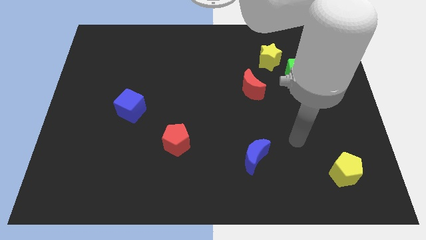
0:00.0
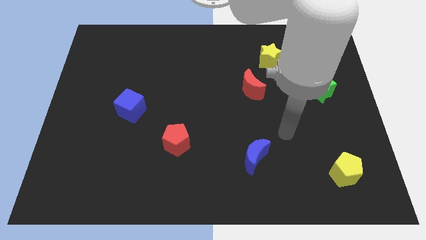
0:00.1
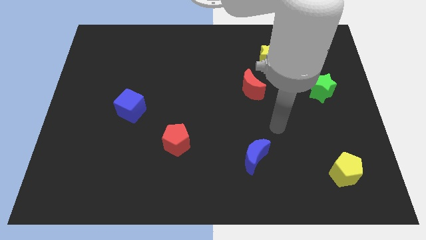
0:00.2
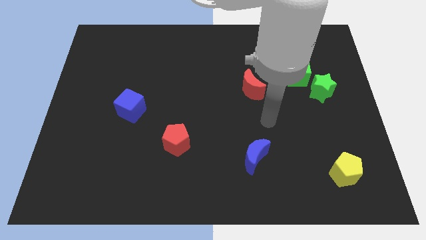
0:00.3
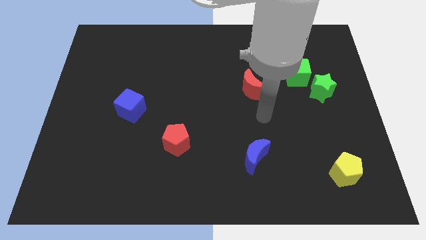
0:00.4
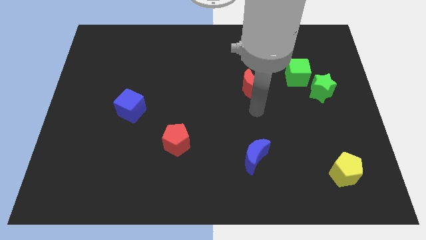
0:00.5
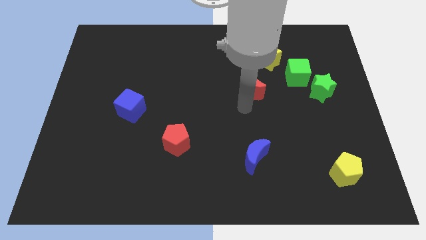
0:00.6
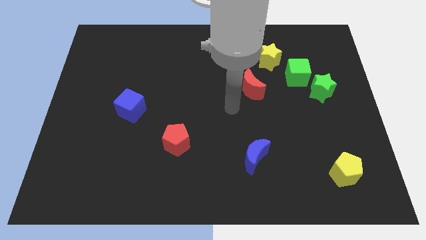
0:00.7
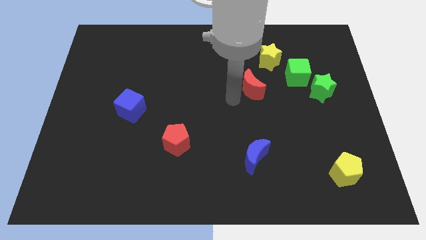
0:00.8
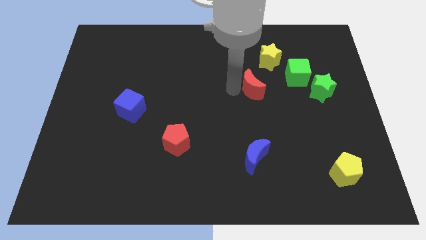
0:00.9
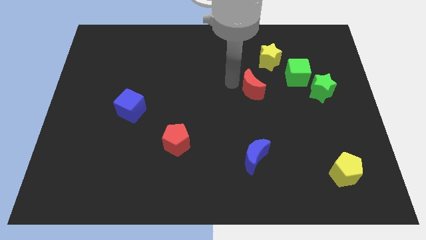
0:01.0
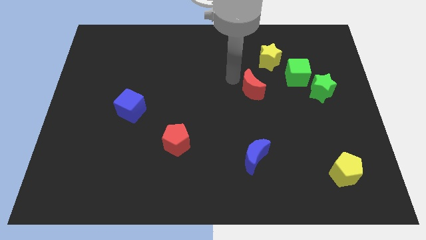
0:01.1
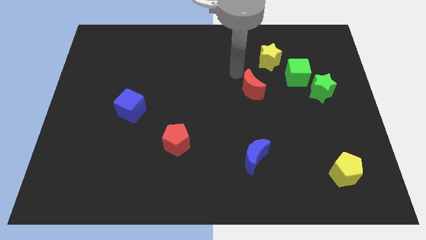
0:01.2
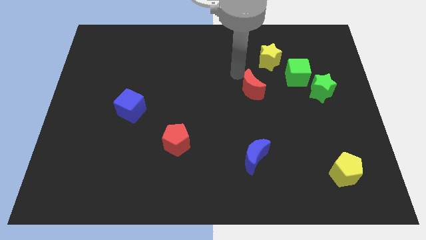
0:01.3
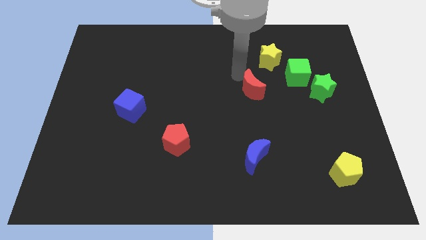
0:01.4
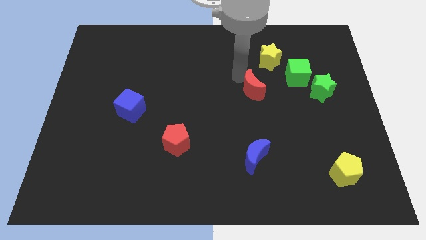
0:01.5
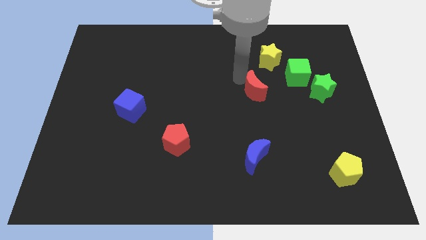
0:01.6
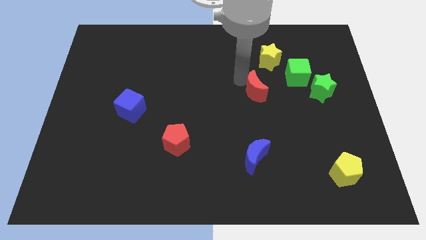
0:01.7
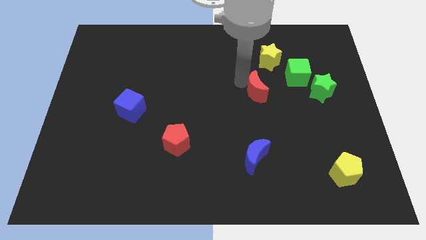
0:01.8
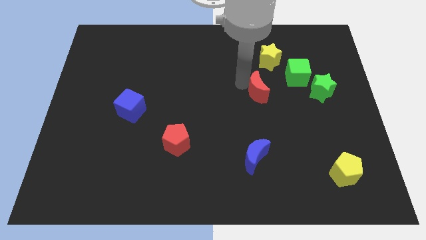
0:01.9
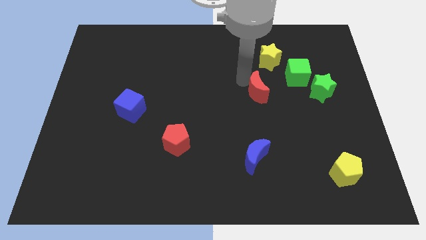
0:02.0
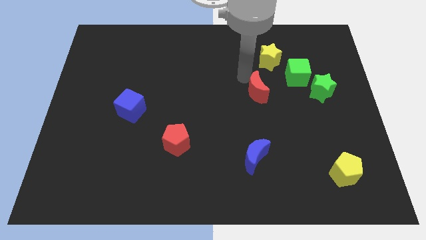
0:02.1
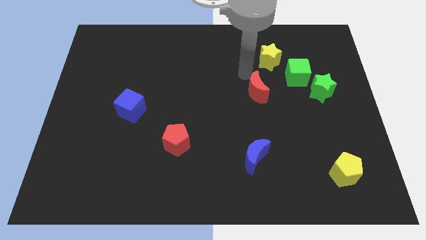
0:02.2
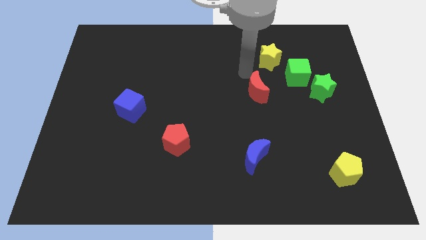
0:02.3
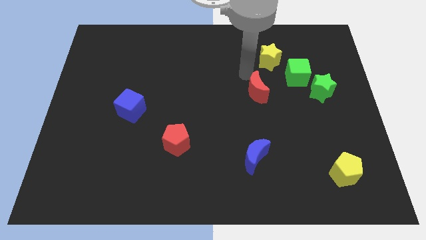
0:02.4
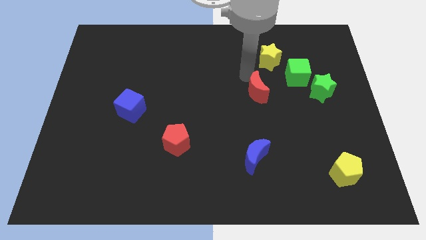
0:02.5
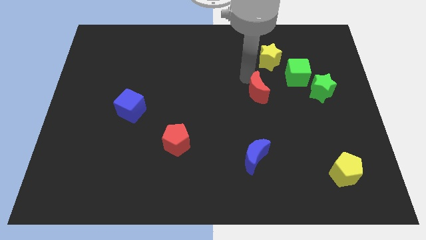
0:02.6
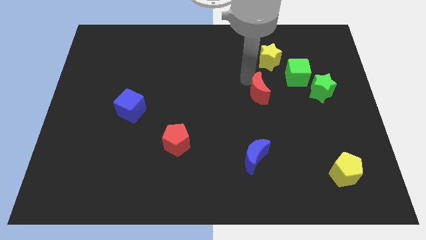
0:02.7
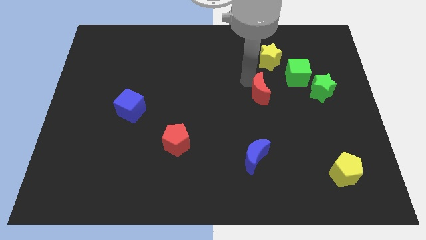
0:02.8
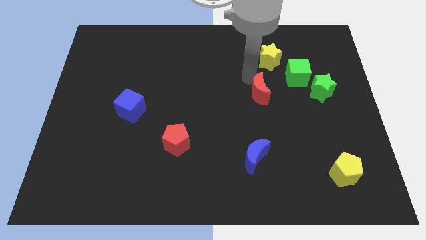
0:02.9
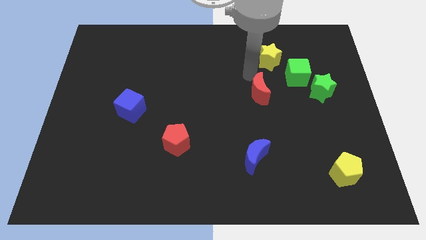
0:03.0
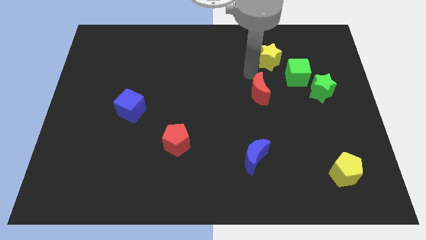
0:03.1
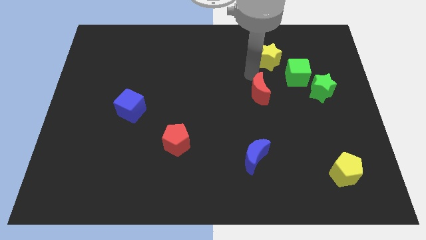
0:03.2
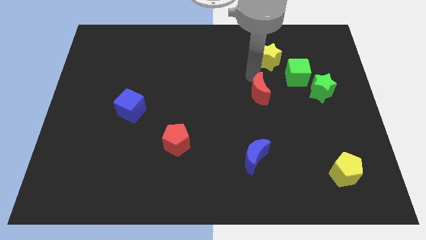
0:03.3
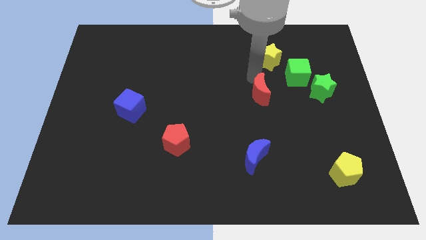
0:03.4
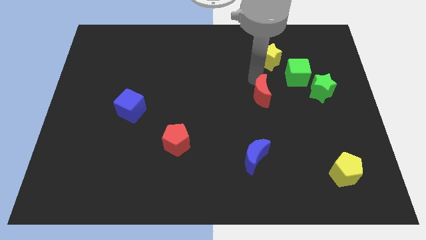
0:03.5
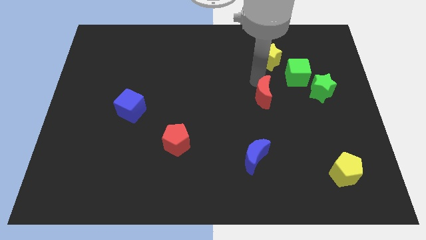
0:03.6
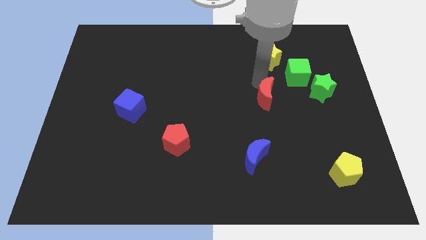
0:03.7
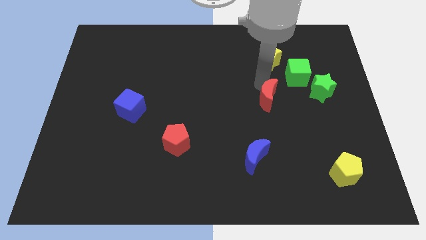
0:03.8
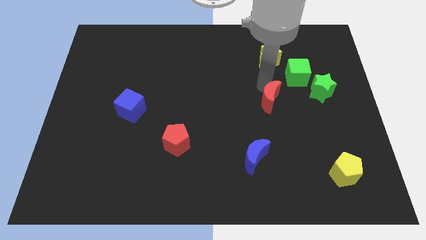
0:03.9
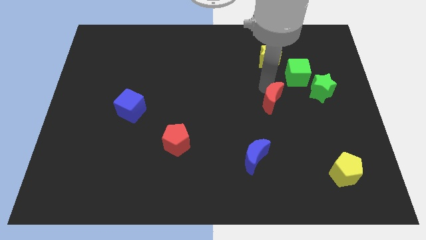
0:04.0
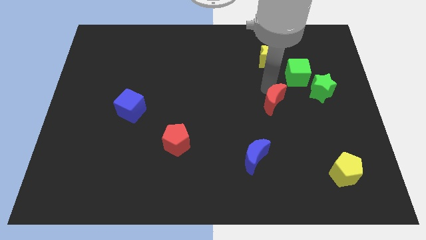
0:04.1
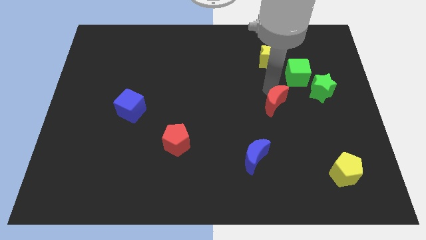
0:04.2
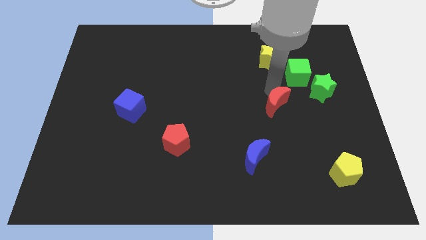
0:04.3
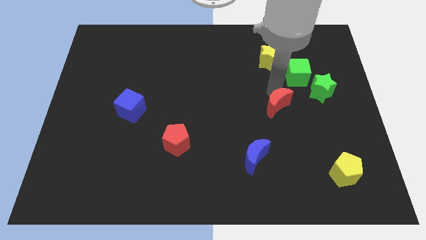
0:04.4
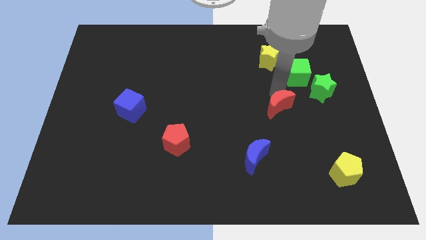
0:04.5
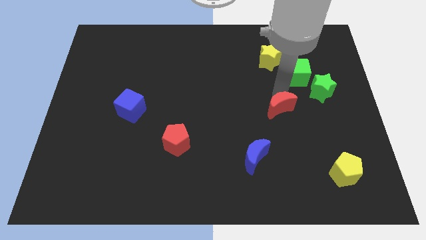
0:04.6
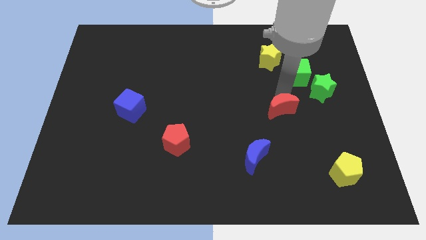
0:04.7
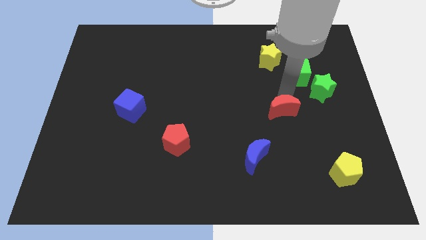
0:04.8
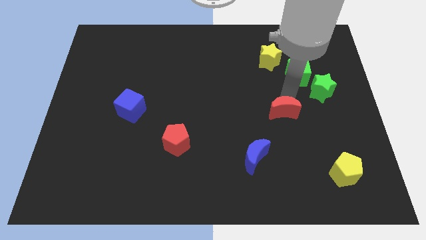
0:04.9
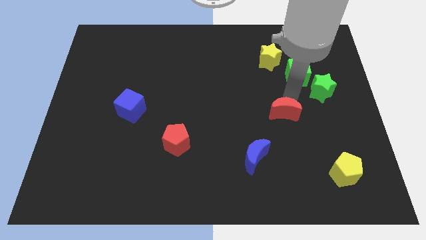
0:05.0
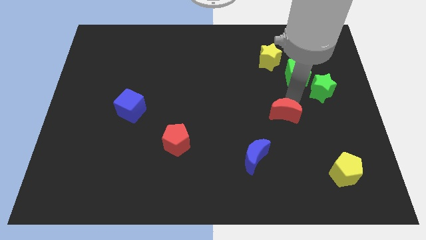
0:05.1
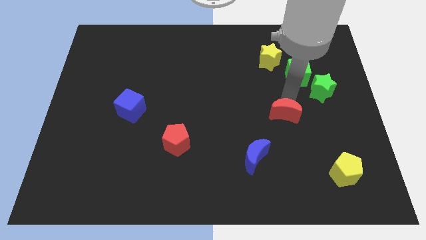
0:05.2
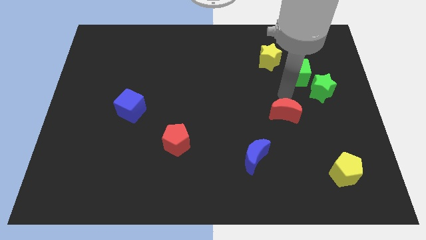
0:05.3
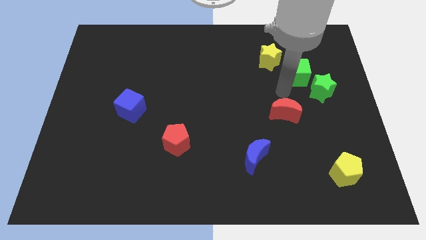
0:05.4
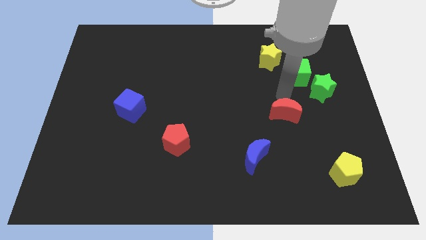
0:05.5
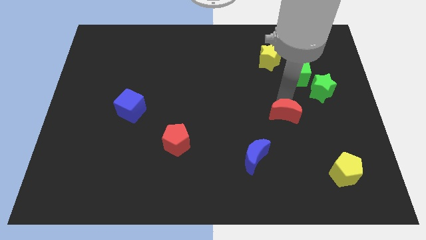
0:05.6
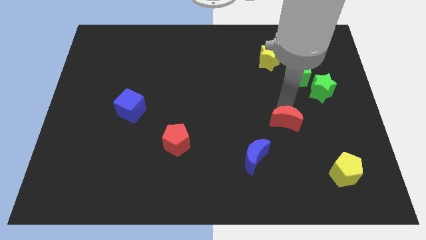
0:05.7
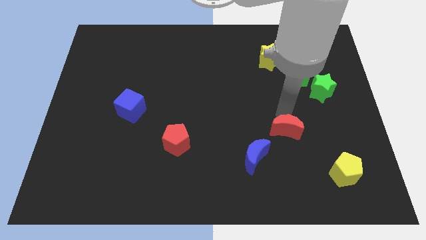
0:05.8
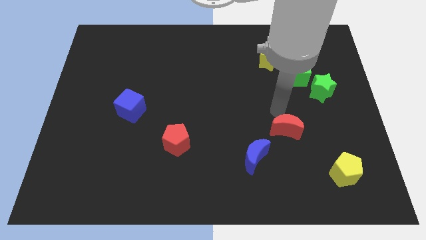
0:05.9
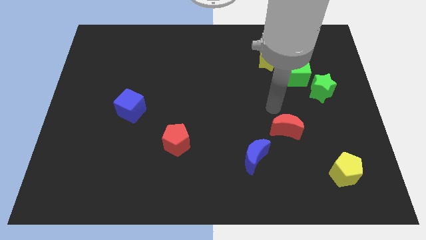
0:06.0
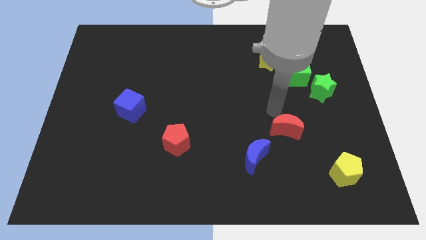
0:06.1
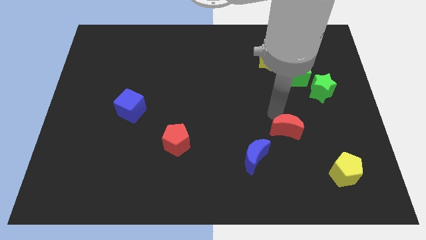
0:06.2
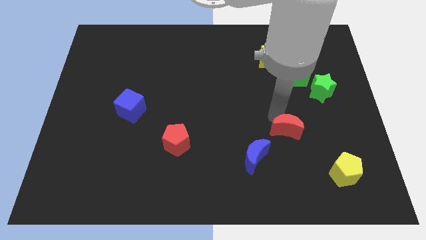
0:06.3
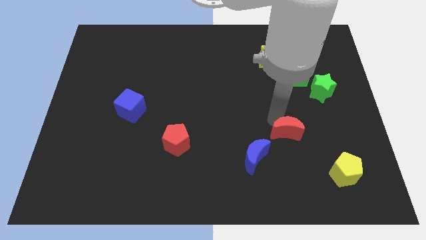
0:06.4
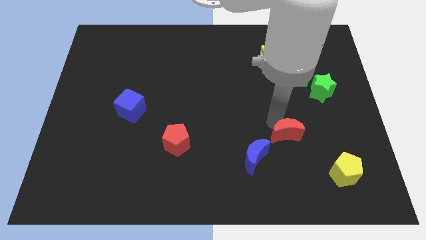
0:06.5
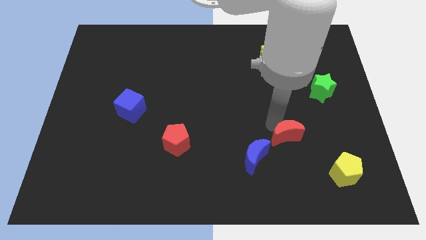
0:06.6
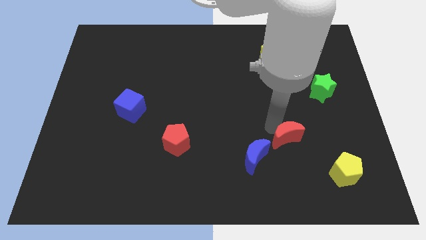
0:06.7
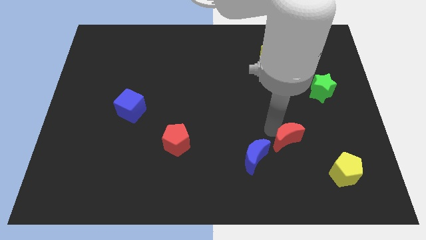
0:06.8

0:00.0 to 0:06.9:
slide the red moon just right of the blue moon
